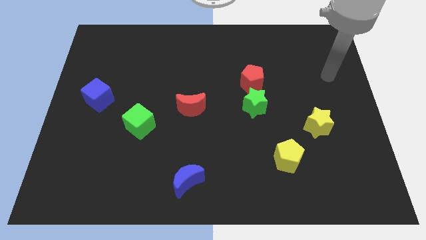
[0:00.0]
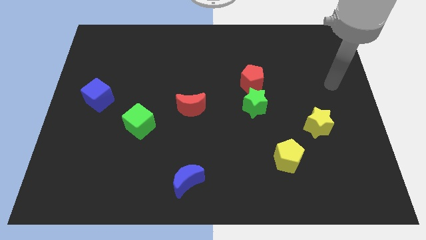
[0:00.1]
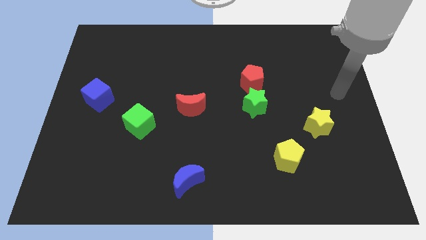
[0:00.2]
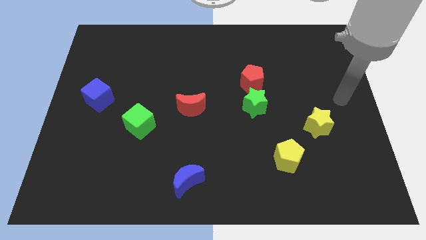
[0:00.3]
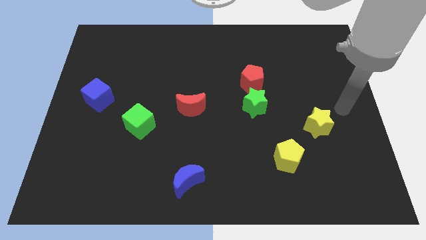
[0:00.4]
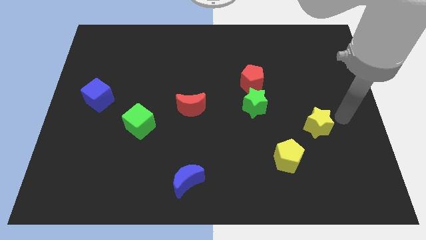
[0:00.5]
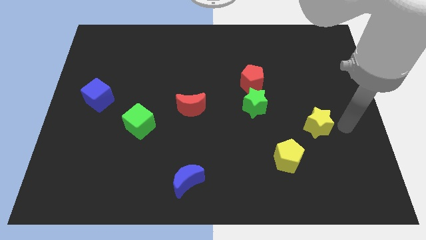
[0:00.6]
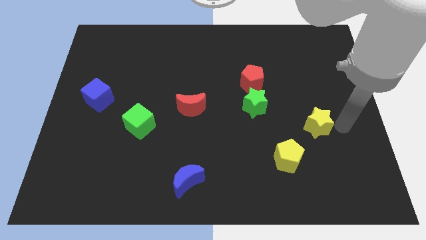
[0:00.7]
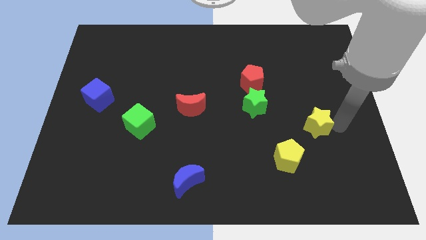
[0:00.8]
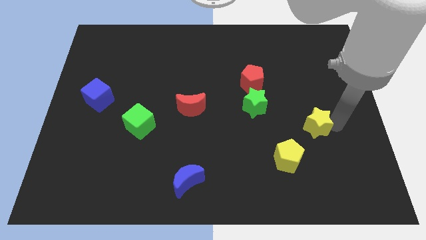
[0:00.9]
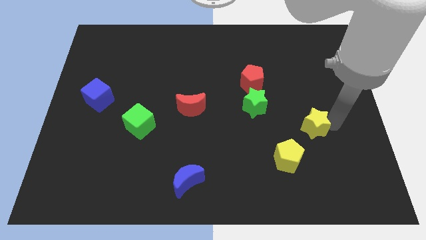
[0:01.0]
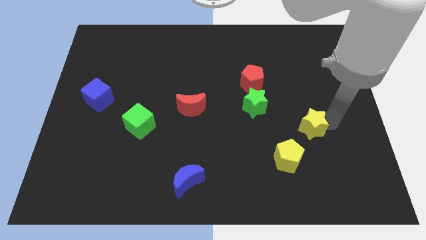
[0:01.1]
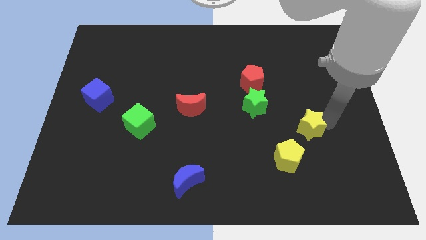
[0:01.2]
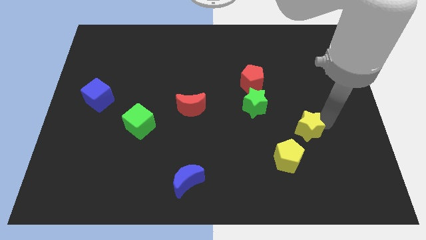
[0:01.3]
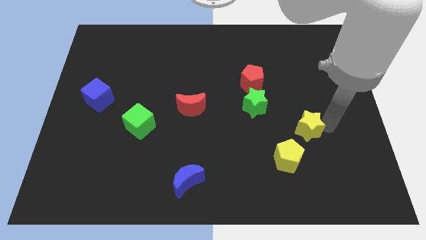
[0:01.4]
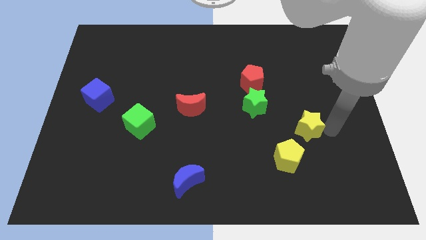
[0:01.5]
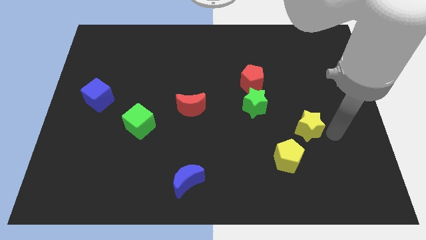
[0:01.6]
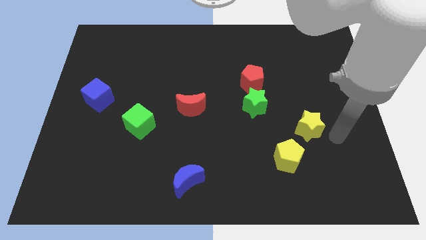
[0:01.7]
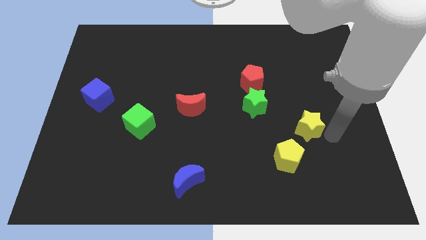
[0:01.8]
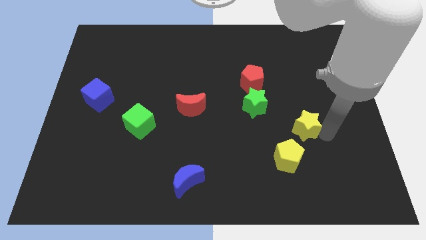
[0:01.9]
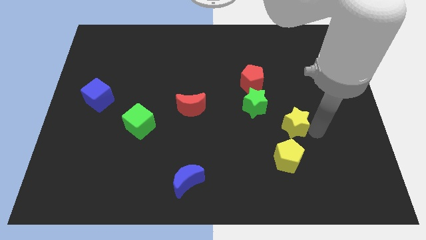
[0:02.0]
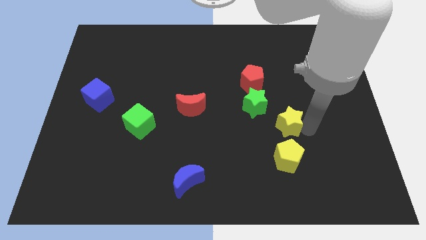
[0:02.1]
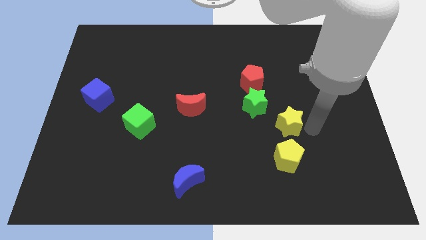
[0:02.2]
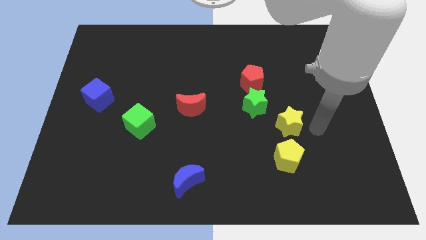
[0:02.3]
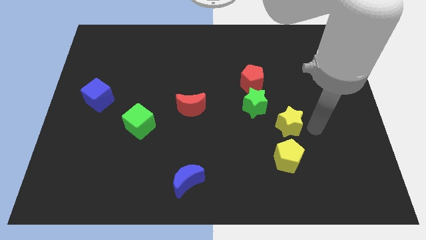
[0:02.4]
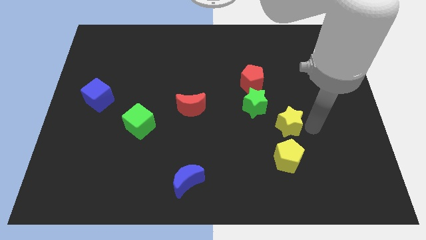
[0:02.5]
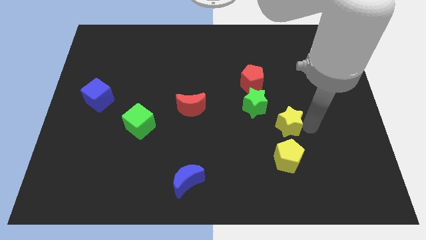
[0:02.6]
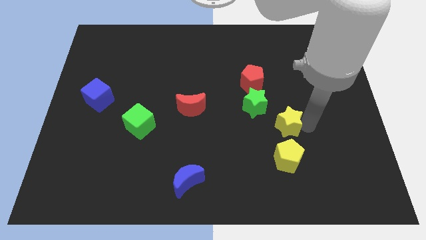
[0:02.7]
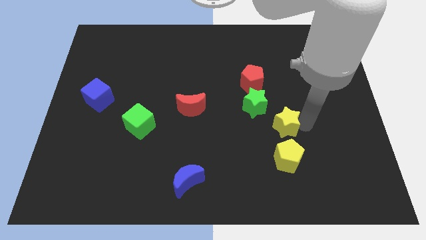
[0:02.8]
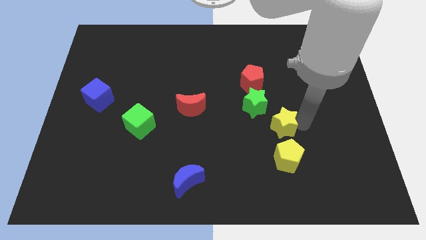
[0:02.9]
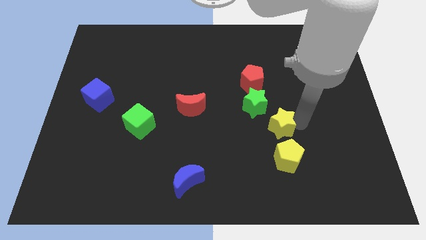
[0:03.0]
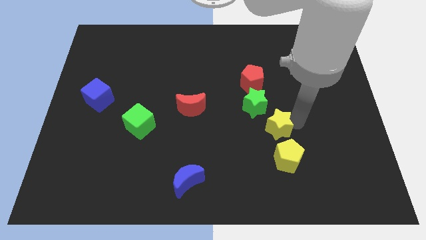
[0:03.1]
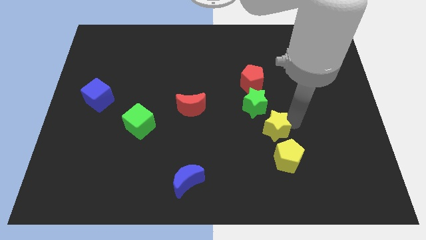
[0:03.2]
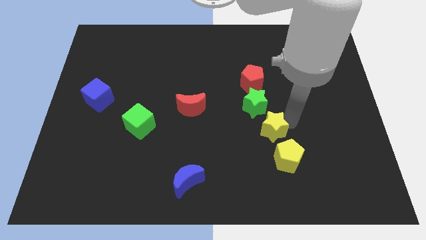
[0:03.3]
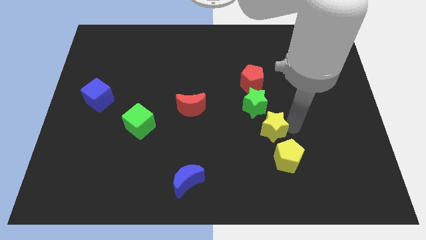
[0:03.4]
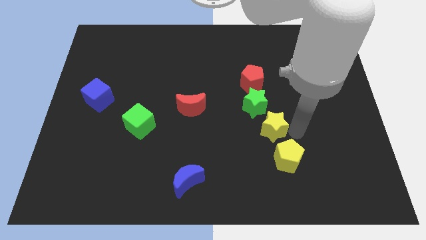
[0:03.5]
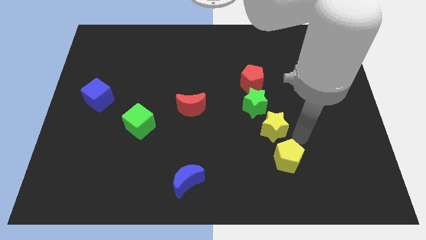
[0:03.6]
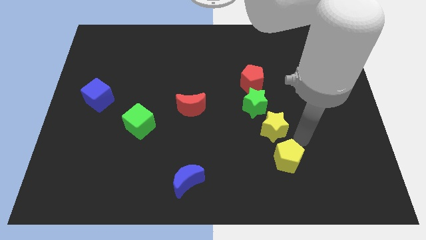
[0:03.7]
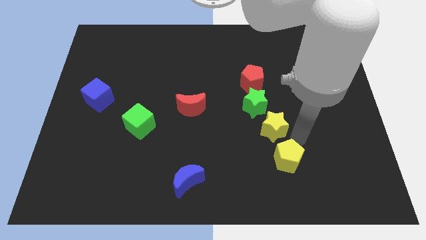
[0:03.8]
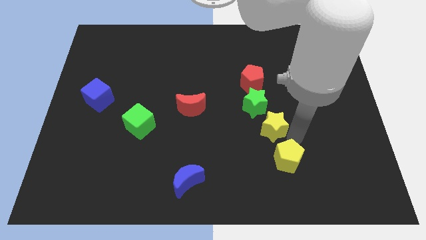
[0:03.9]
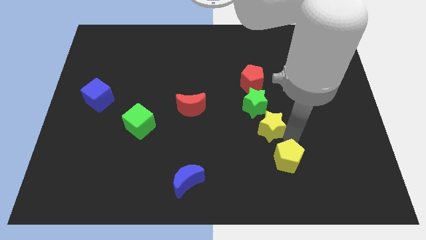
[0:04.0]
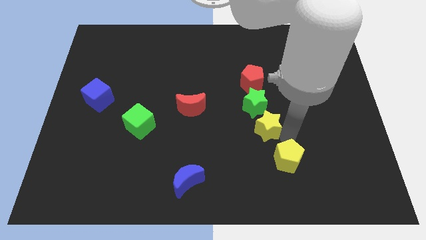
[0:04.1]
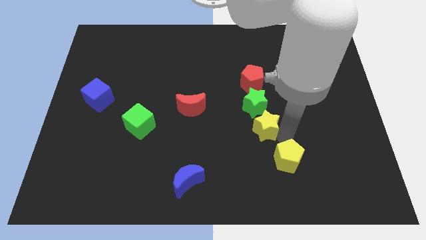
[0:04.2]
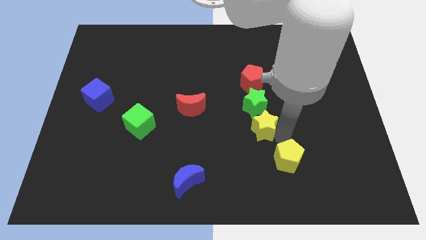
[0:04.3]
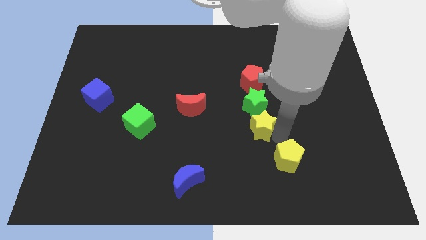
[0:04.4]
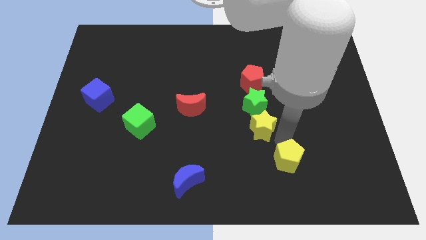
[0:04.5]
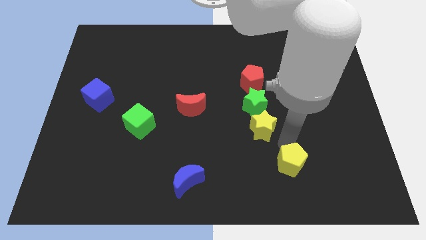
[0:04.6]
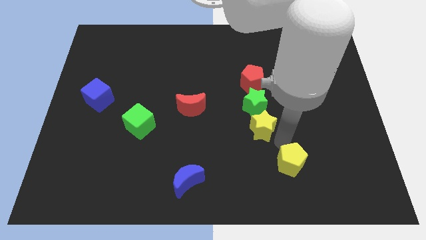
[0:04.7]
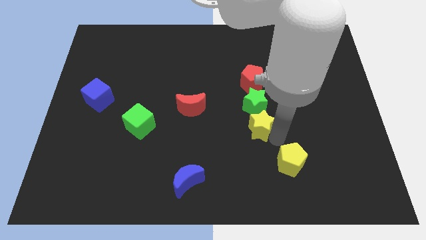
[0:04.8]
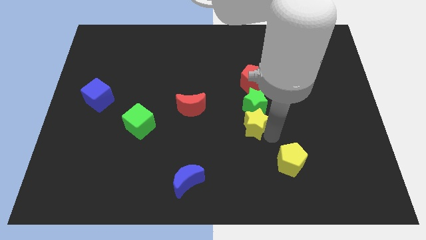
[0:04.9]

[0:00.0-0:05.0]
put the yellow star to the middle

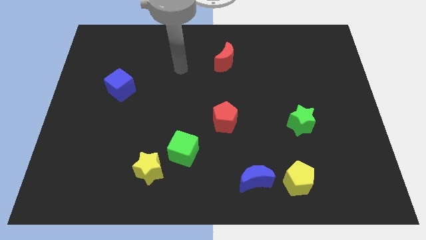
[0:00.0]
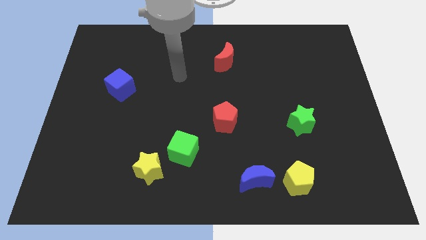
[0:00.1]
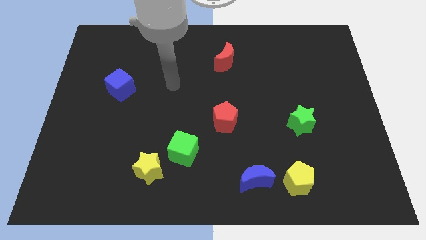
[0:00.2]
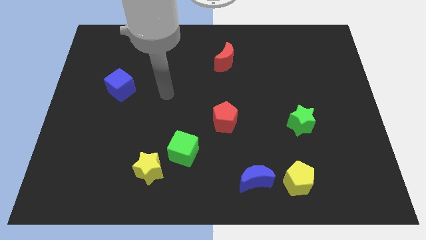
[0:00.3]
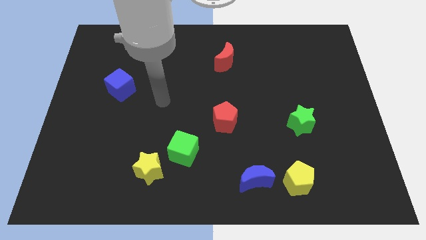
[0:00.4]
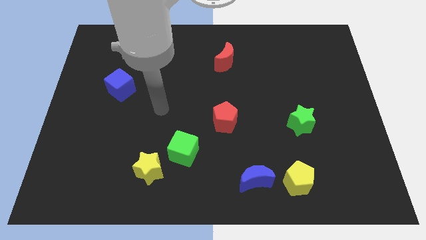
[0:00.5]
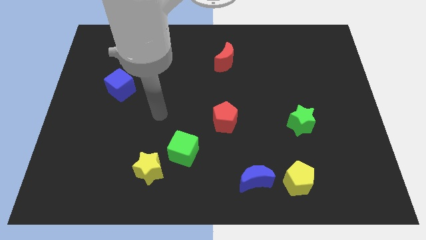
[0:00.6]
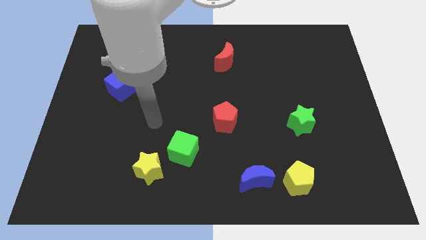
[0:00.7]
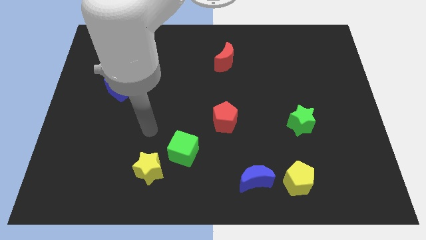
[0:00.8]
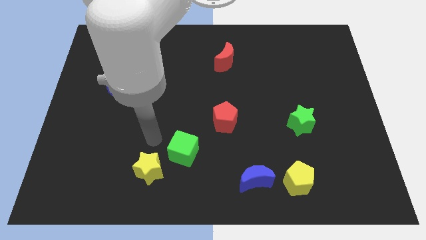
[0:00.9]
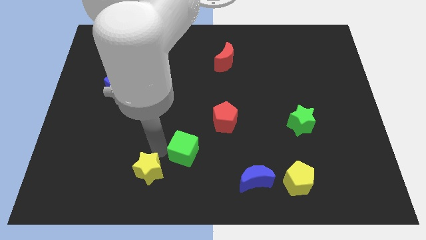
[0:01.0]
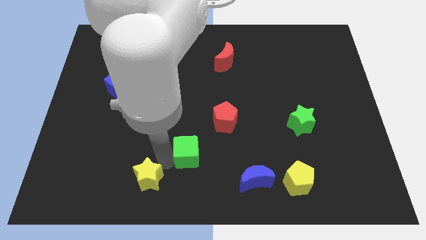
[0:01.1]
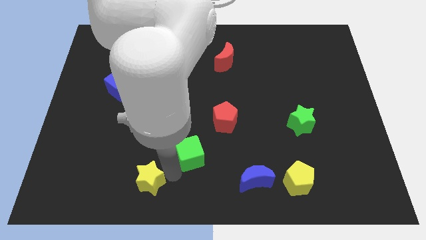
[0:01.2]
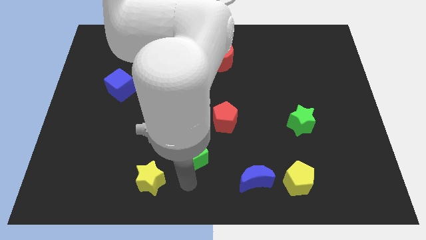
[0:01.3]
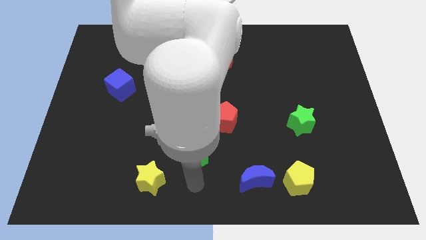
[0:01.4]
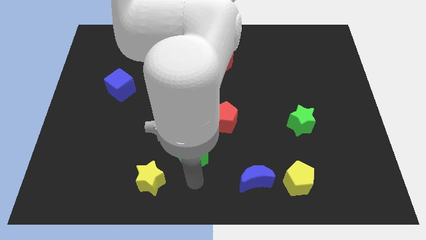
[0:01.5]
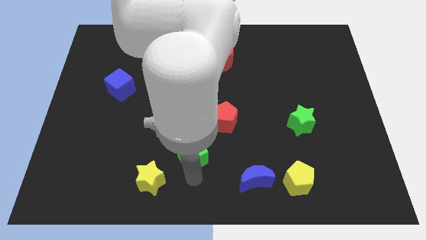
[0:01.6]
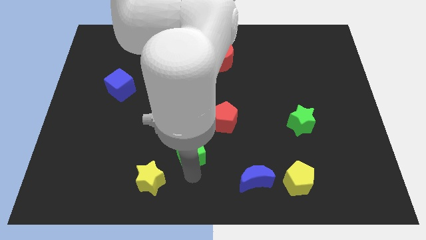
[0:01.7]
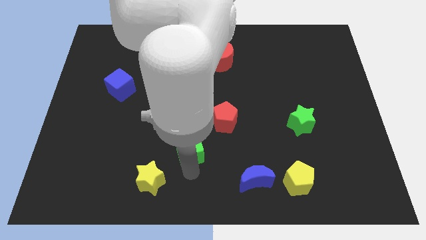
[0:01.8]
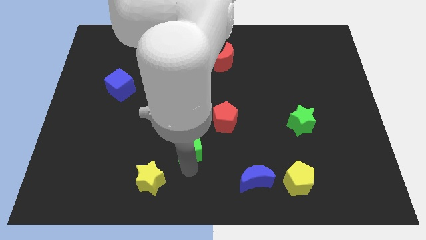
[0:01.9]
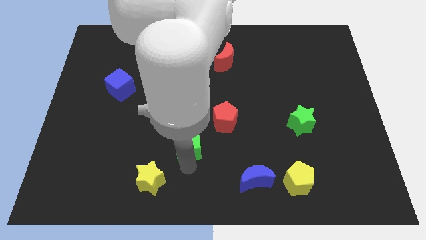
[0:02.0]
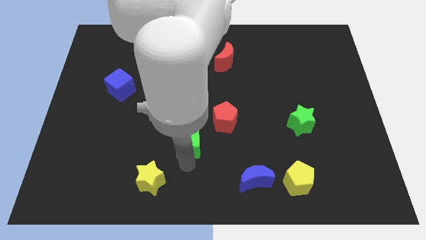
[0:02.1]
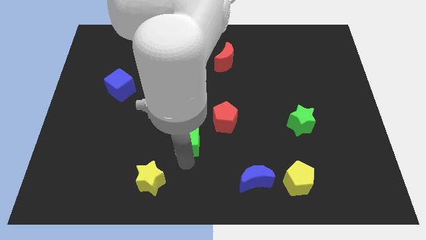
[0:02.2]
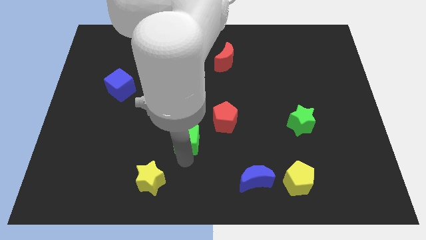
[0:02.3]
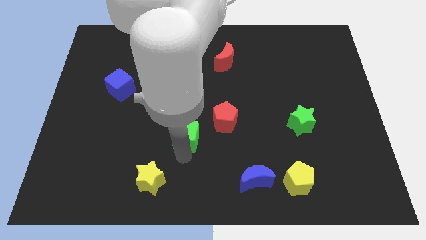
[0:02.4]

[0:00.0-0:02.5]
move the green cube to the center
